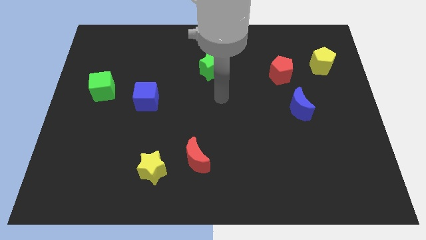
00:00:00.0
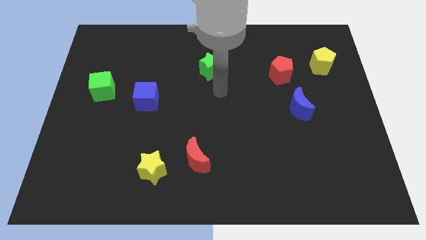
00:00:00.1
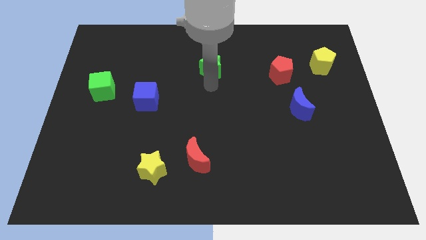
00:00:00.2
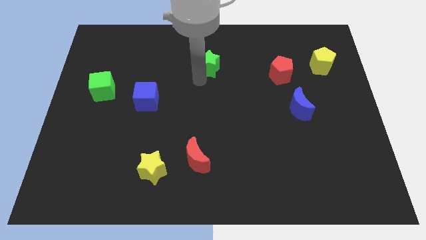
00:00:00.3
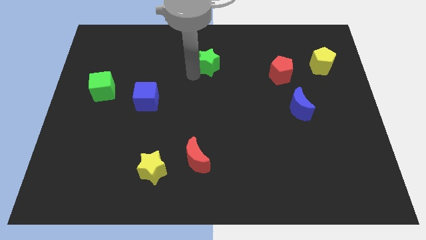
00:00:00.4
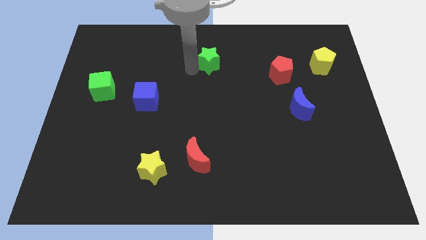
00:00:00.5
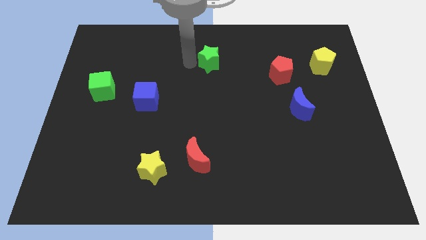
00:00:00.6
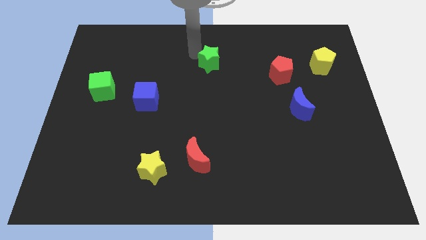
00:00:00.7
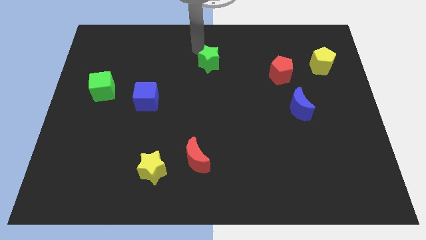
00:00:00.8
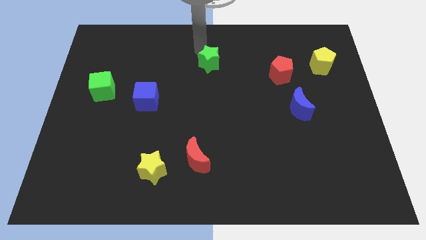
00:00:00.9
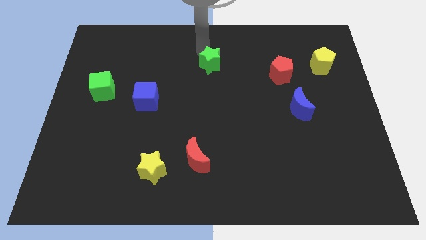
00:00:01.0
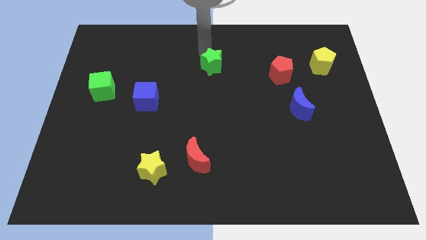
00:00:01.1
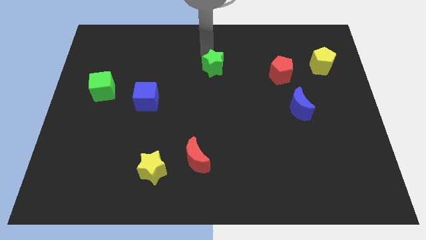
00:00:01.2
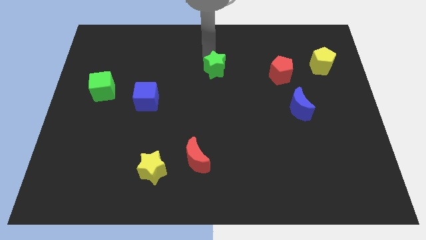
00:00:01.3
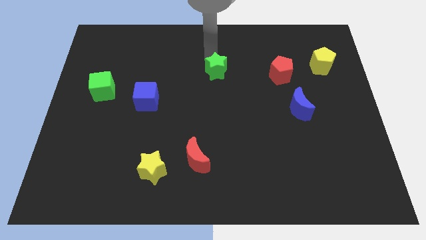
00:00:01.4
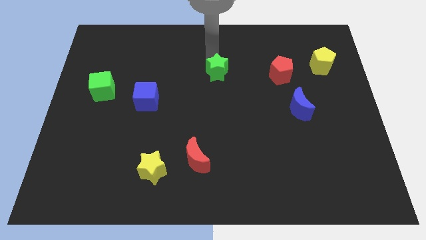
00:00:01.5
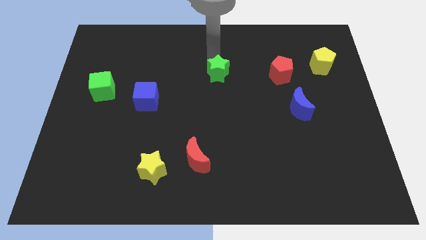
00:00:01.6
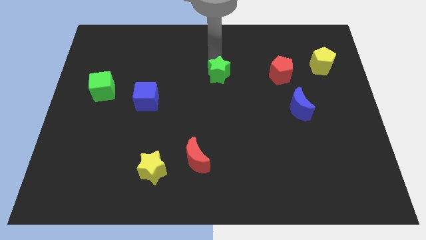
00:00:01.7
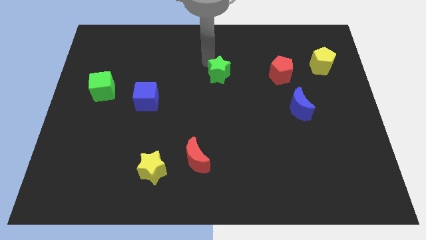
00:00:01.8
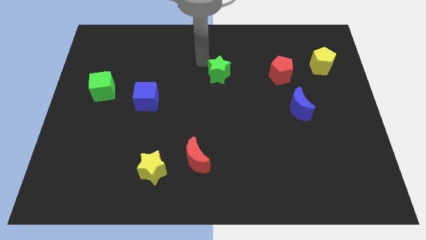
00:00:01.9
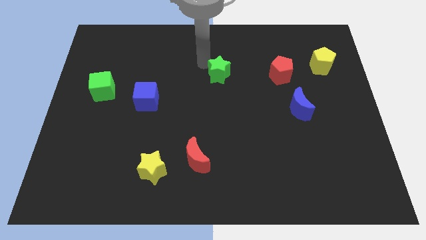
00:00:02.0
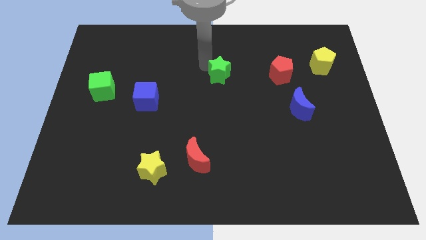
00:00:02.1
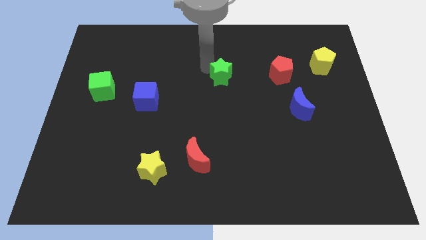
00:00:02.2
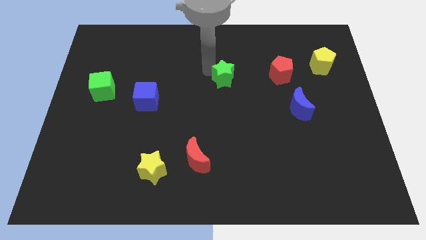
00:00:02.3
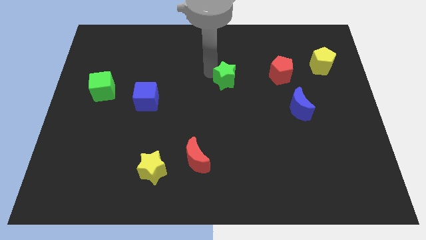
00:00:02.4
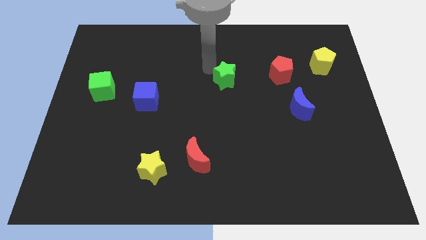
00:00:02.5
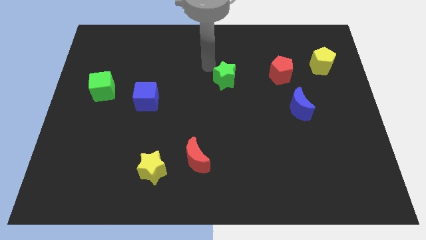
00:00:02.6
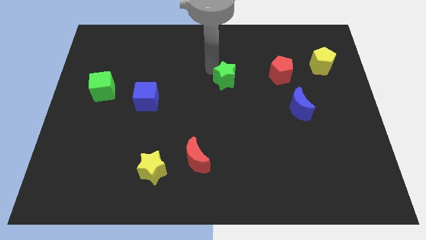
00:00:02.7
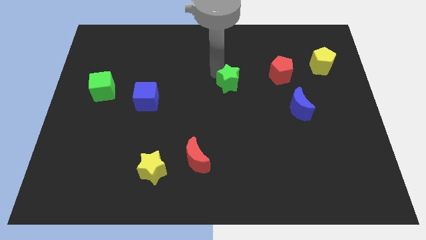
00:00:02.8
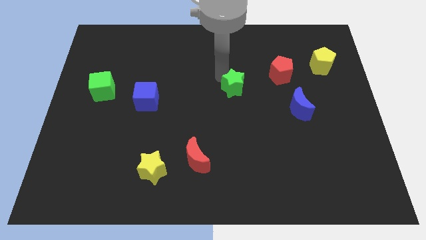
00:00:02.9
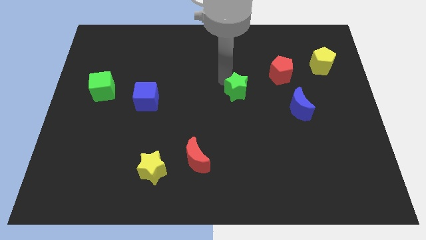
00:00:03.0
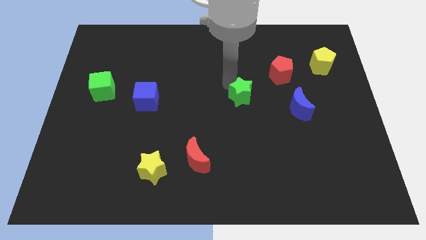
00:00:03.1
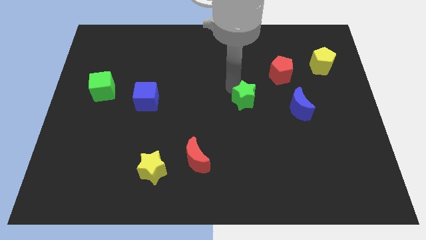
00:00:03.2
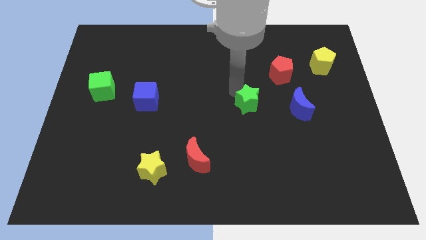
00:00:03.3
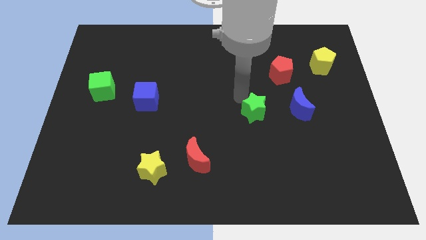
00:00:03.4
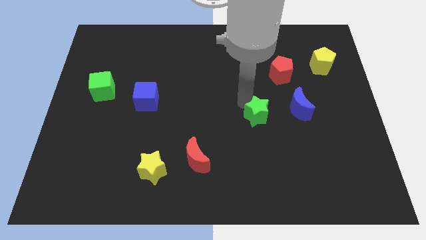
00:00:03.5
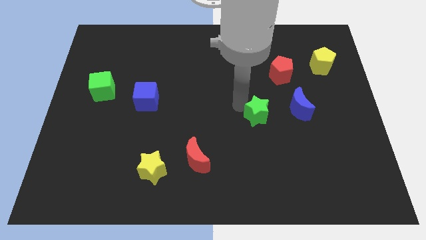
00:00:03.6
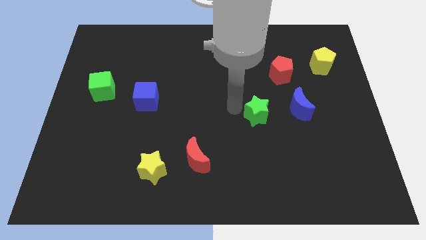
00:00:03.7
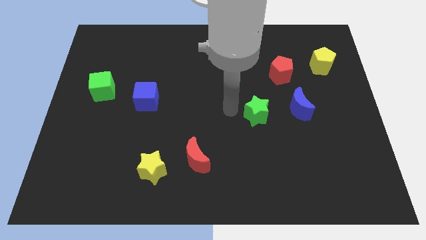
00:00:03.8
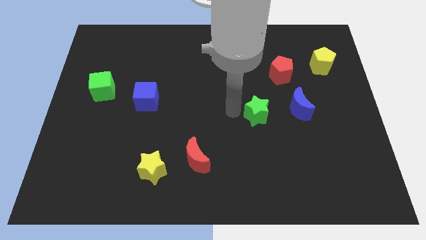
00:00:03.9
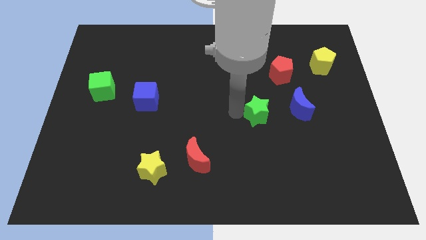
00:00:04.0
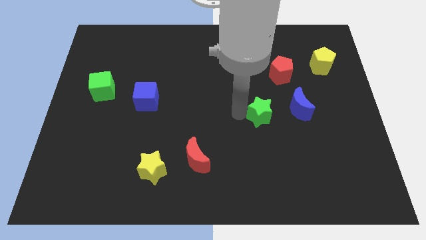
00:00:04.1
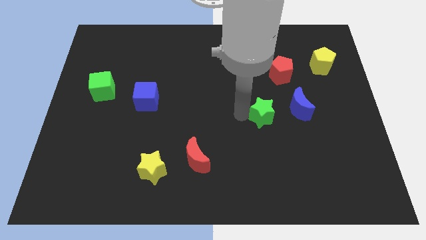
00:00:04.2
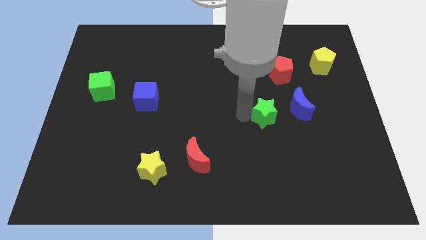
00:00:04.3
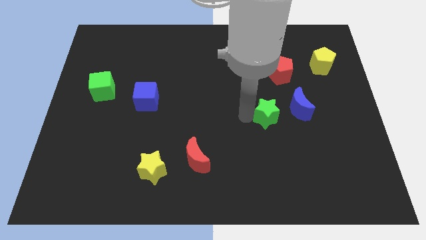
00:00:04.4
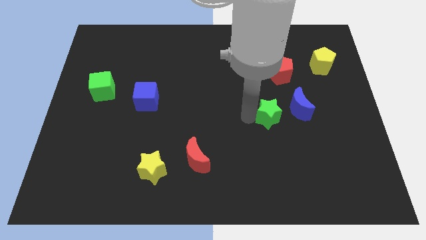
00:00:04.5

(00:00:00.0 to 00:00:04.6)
move the green star diagonally down and to the right

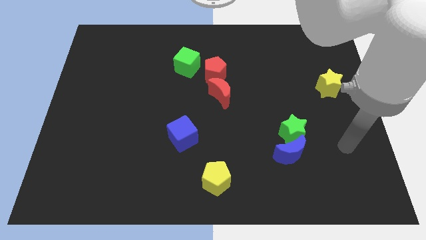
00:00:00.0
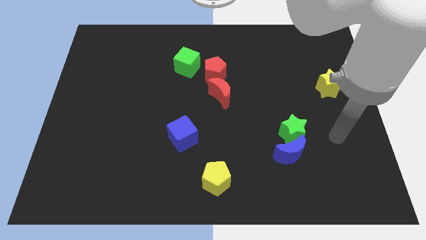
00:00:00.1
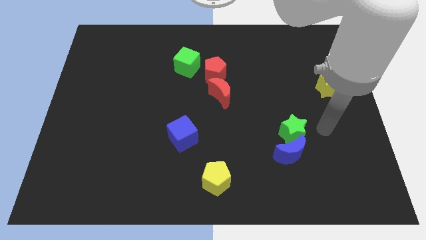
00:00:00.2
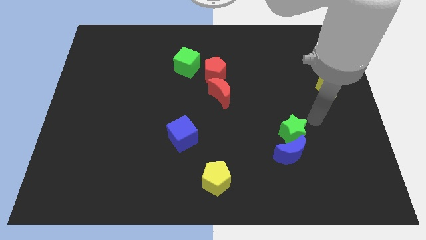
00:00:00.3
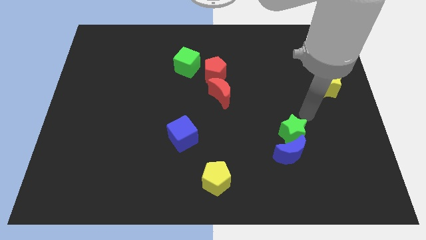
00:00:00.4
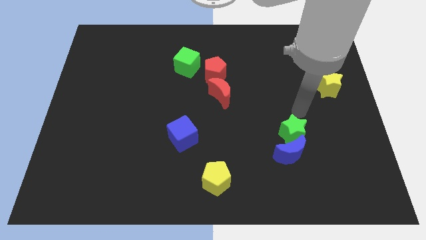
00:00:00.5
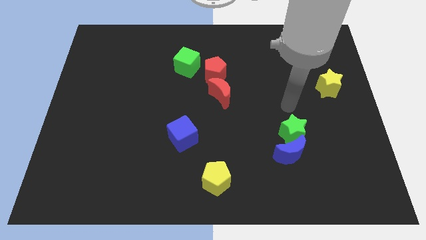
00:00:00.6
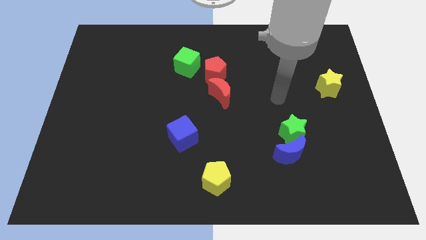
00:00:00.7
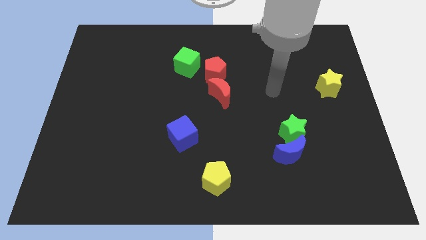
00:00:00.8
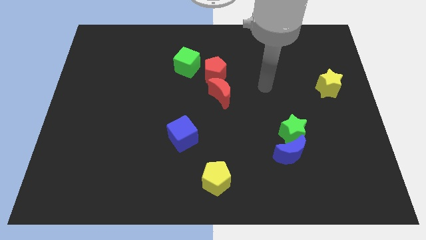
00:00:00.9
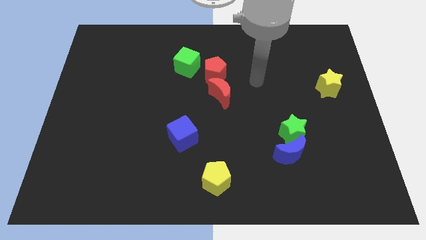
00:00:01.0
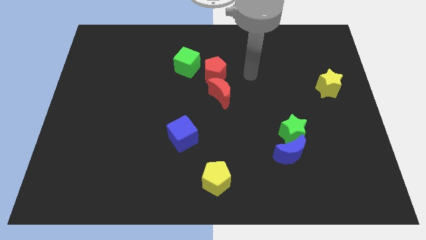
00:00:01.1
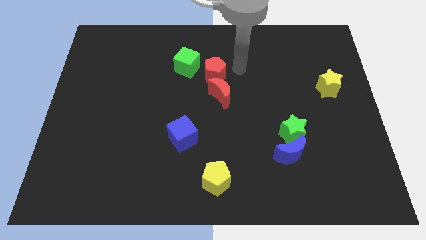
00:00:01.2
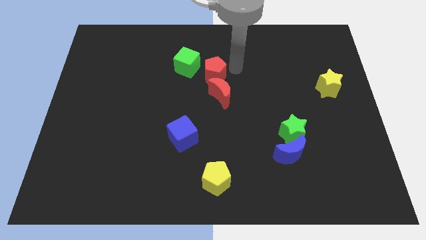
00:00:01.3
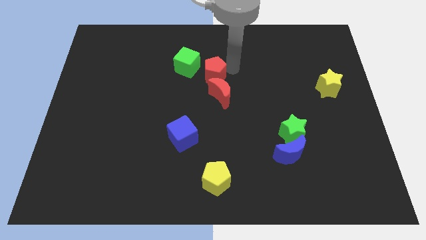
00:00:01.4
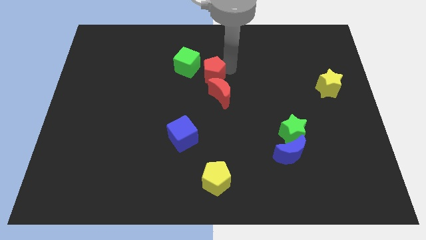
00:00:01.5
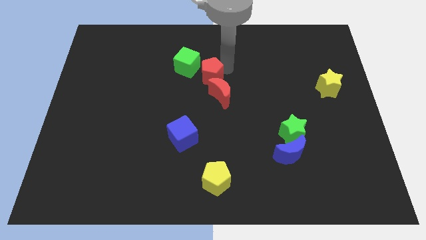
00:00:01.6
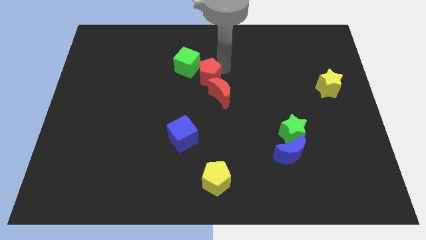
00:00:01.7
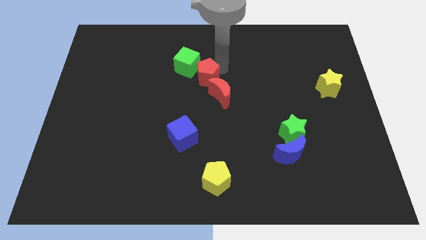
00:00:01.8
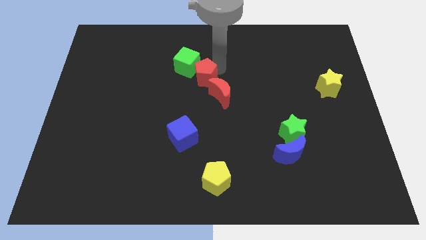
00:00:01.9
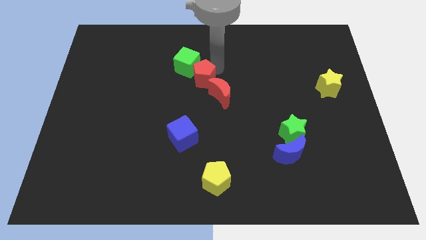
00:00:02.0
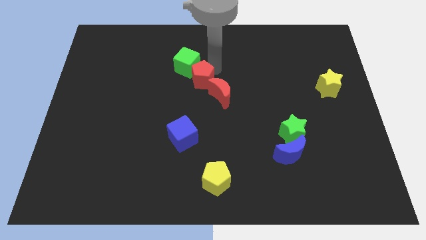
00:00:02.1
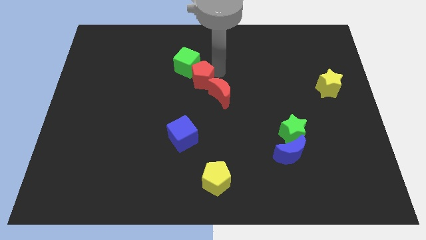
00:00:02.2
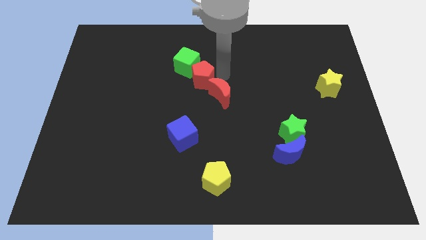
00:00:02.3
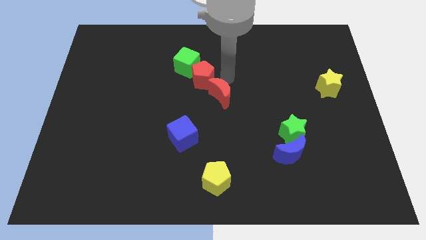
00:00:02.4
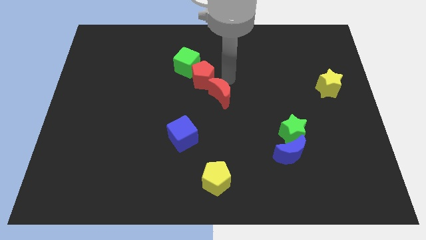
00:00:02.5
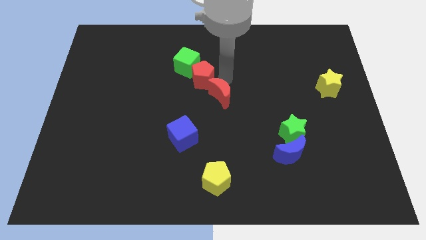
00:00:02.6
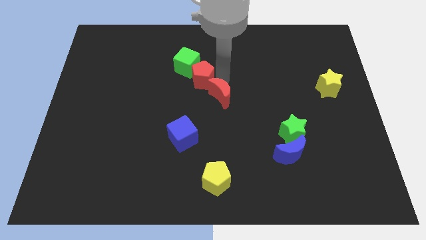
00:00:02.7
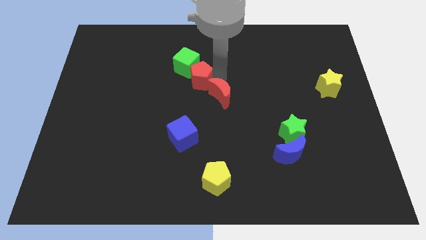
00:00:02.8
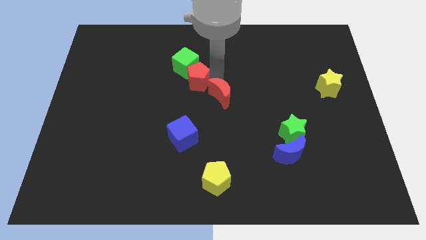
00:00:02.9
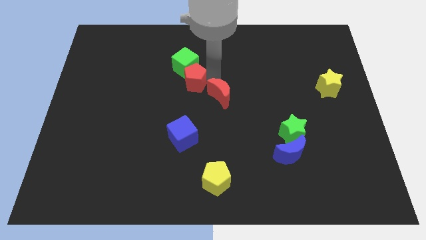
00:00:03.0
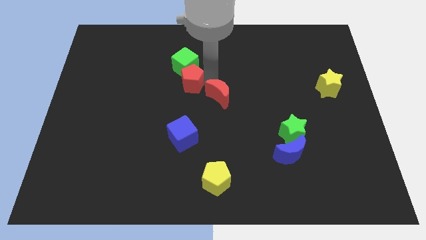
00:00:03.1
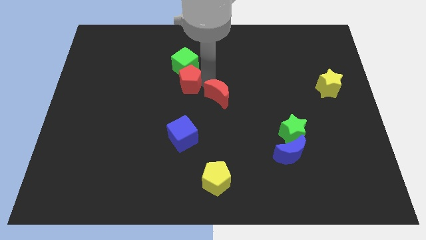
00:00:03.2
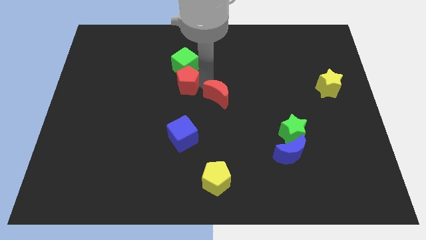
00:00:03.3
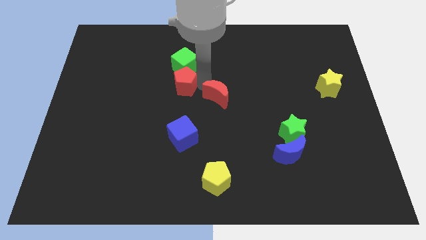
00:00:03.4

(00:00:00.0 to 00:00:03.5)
slightly slide the red pentagon to the left

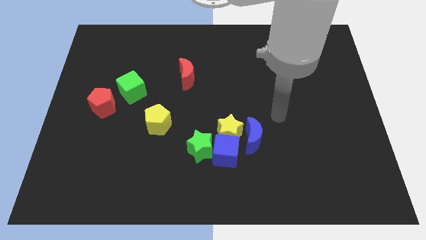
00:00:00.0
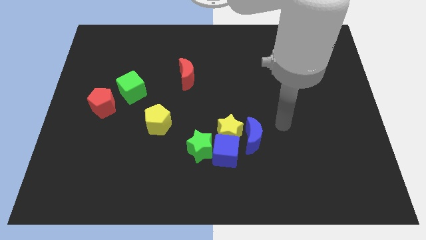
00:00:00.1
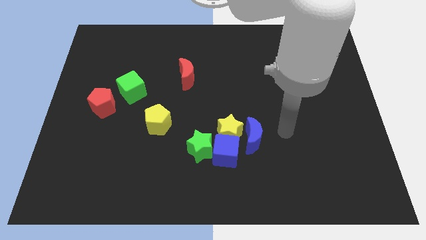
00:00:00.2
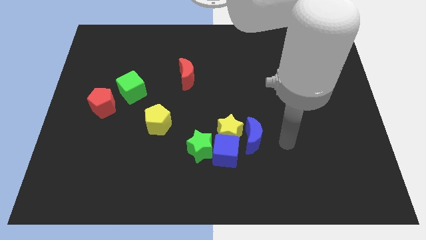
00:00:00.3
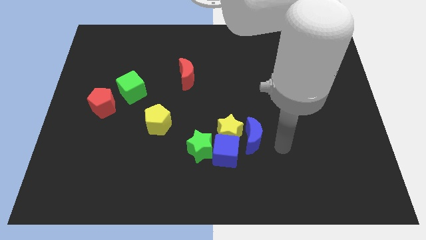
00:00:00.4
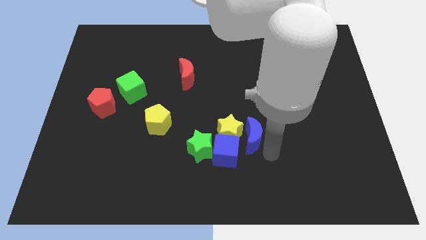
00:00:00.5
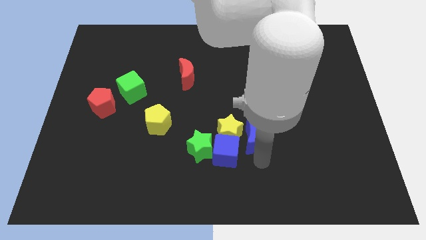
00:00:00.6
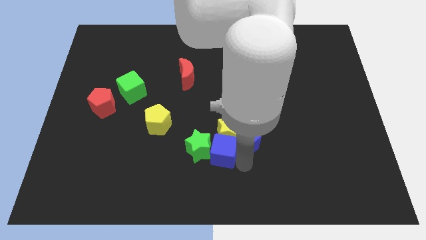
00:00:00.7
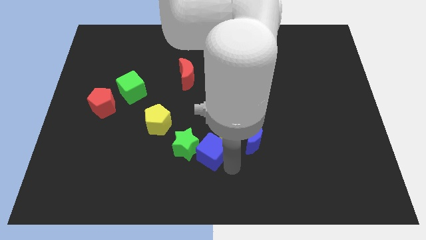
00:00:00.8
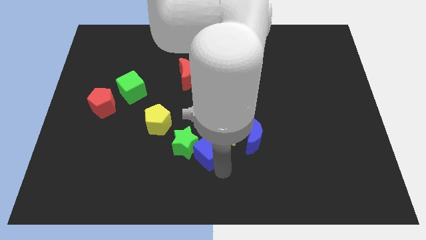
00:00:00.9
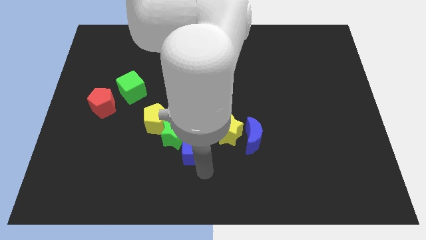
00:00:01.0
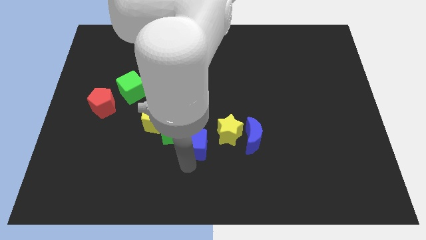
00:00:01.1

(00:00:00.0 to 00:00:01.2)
slightly slide the green star upwards and left
